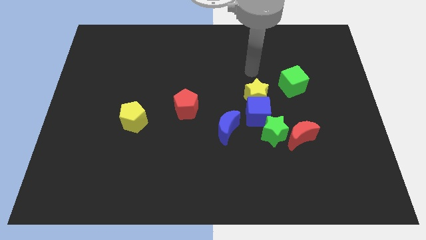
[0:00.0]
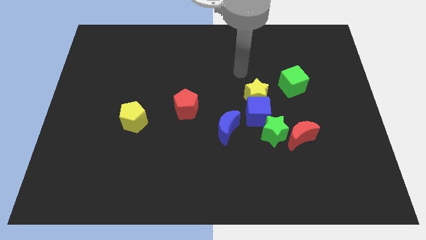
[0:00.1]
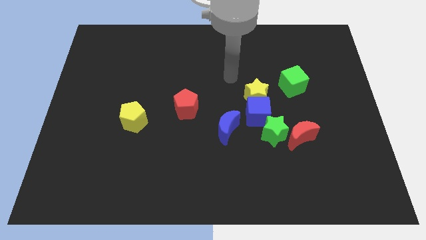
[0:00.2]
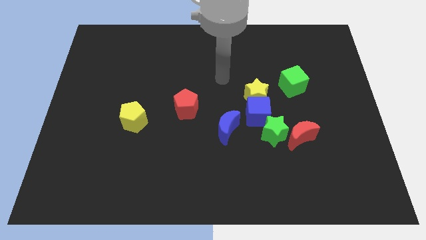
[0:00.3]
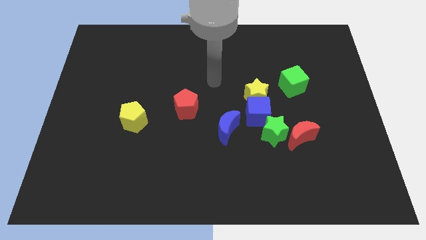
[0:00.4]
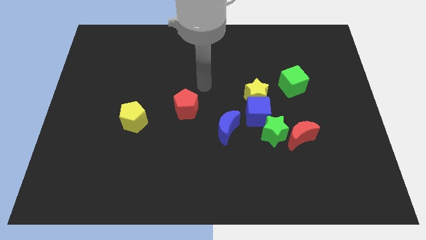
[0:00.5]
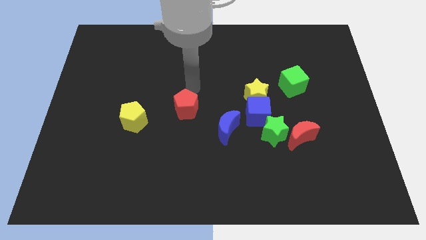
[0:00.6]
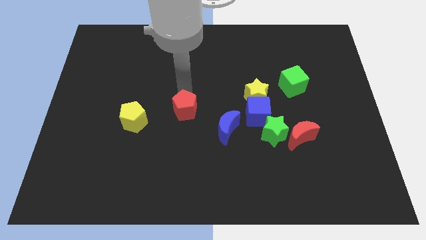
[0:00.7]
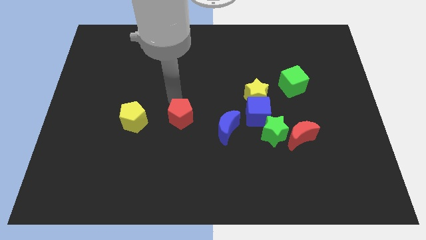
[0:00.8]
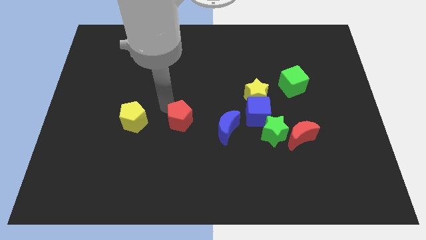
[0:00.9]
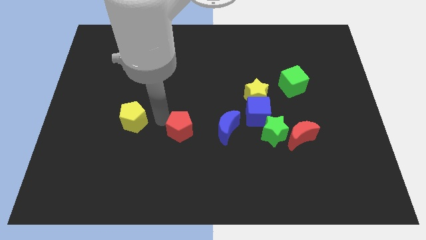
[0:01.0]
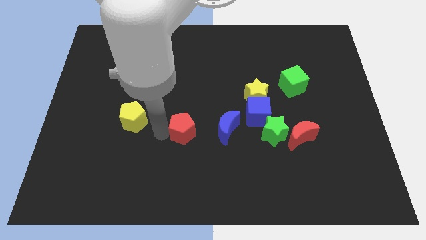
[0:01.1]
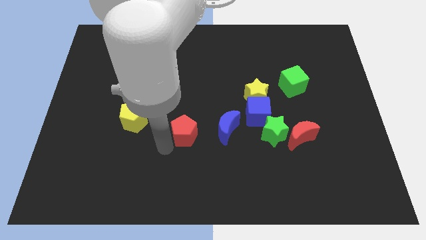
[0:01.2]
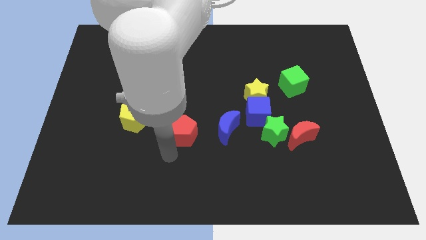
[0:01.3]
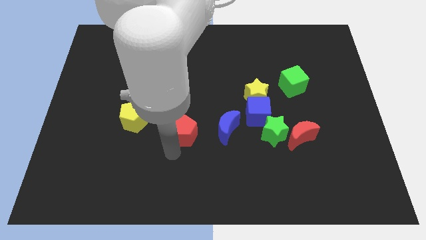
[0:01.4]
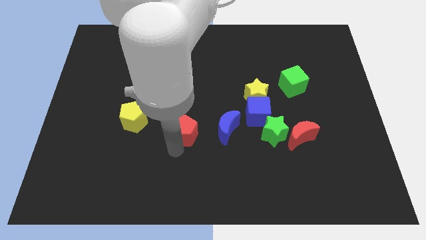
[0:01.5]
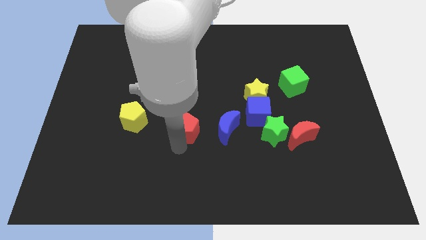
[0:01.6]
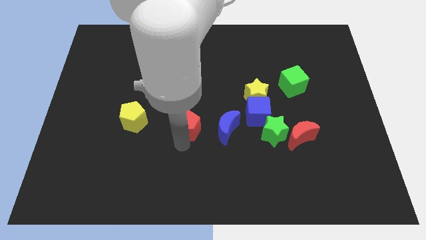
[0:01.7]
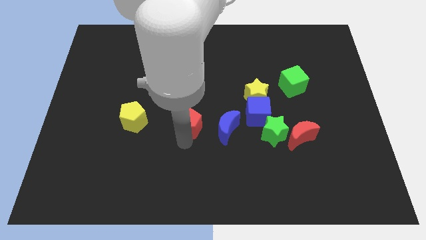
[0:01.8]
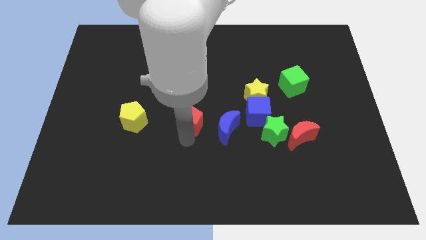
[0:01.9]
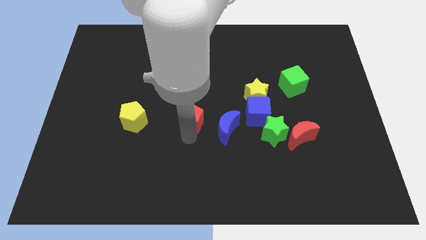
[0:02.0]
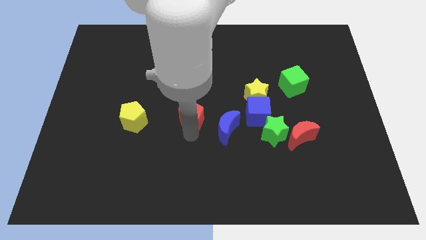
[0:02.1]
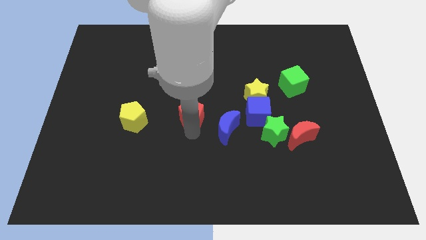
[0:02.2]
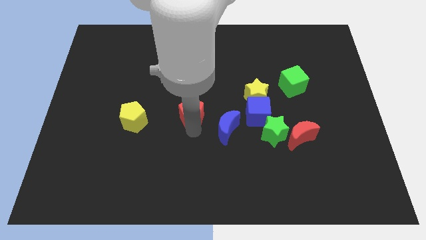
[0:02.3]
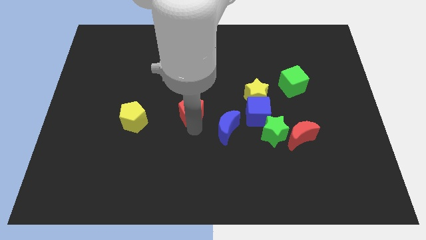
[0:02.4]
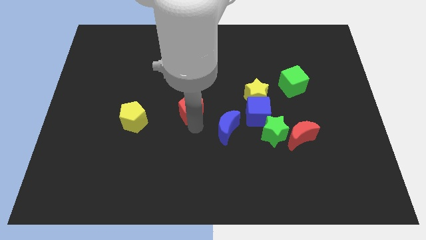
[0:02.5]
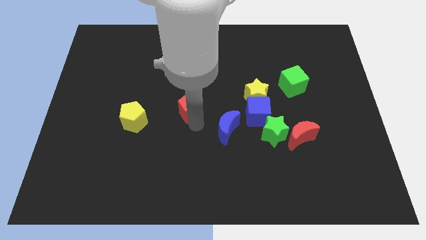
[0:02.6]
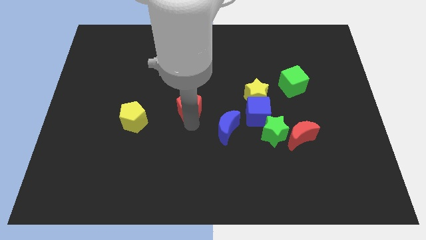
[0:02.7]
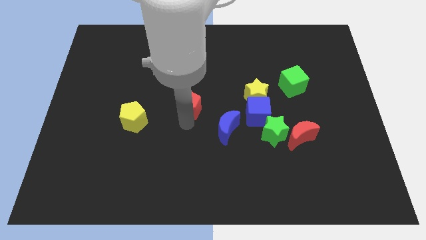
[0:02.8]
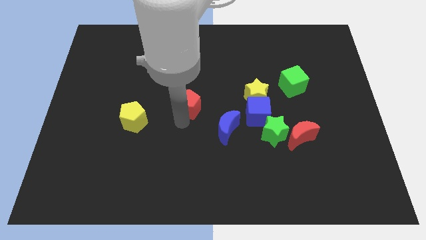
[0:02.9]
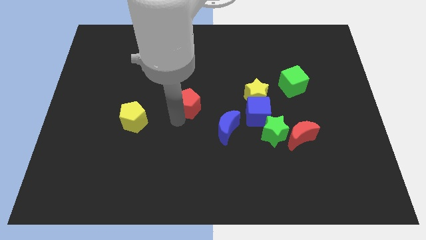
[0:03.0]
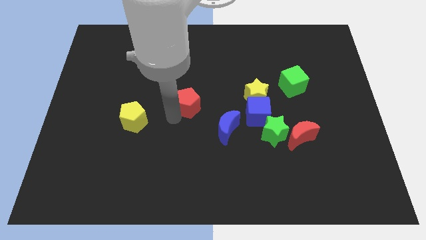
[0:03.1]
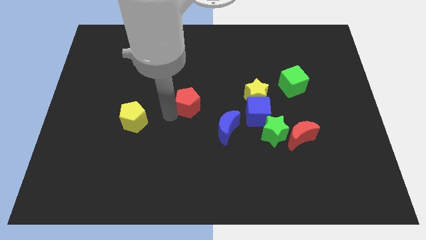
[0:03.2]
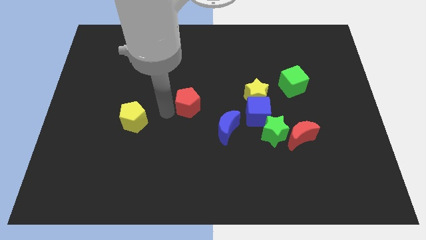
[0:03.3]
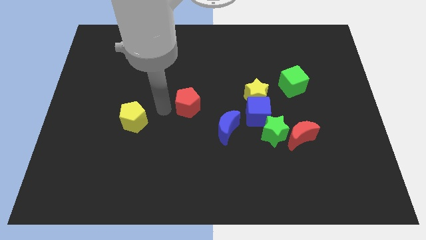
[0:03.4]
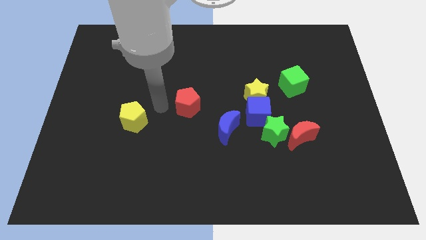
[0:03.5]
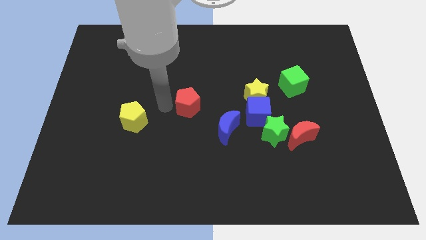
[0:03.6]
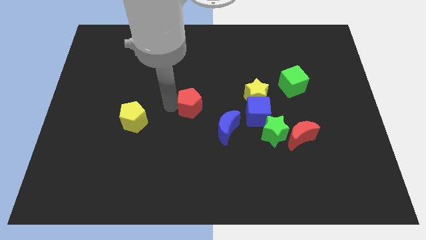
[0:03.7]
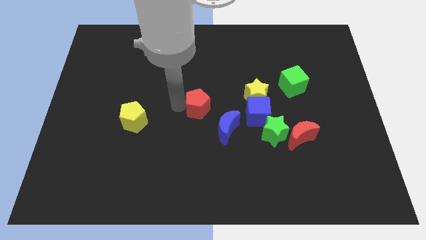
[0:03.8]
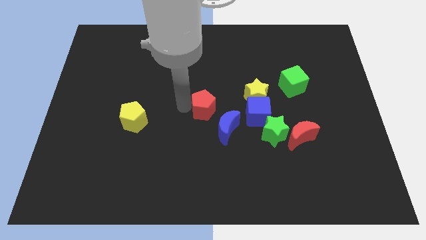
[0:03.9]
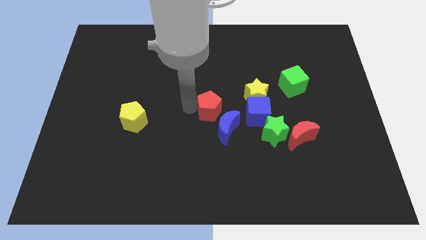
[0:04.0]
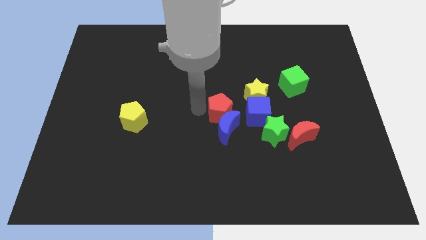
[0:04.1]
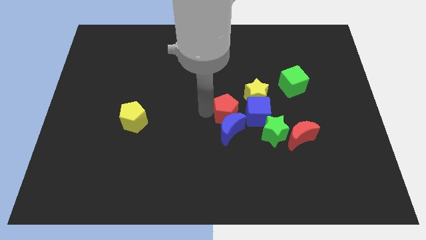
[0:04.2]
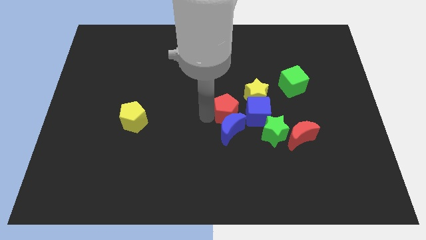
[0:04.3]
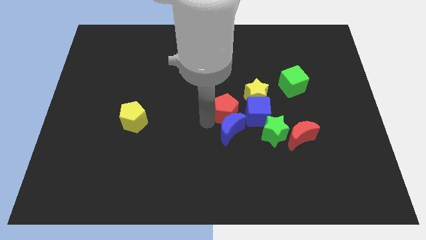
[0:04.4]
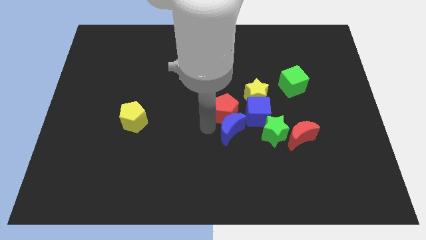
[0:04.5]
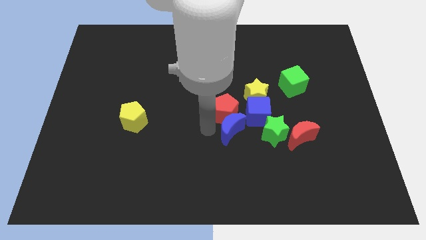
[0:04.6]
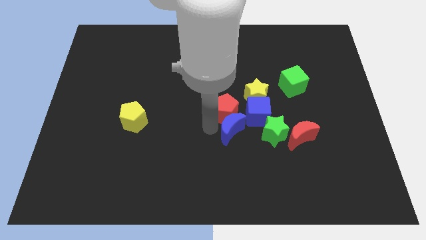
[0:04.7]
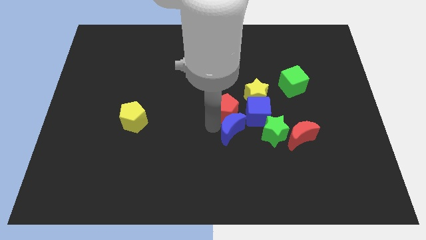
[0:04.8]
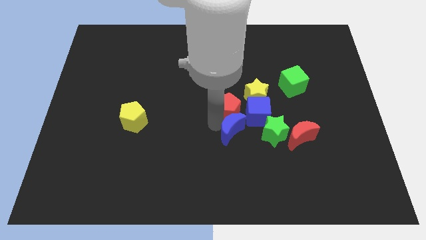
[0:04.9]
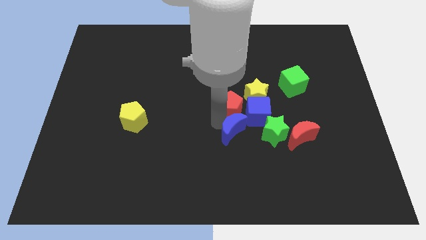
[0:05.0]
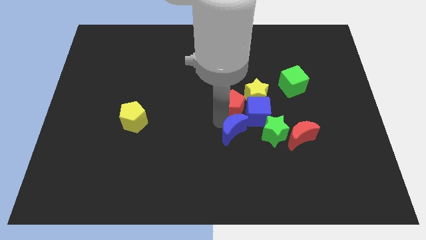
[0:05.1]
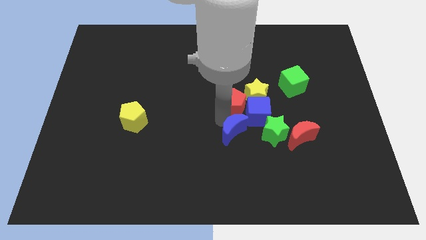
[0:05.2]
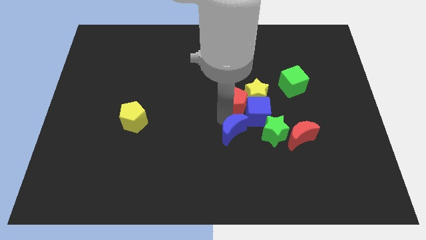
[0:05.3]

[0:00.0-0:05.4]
push the red pentagon to the yellow star

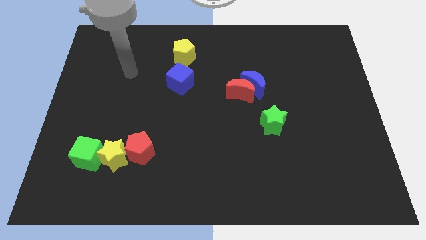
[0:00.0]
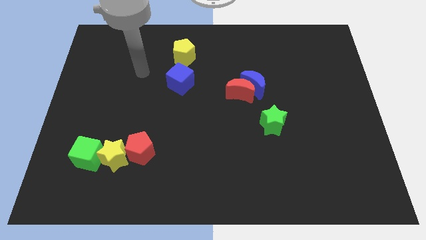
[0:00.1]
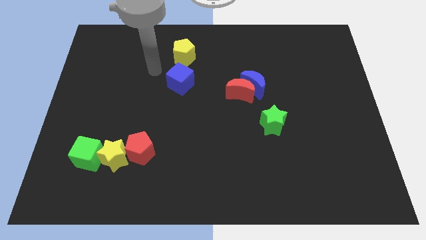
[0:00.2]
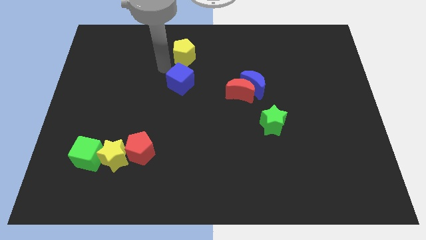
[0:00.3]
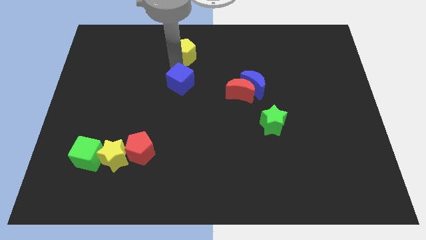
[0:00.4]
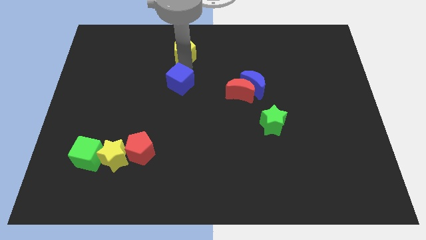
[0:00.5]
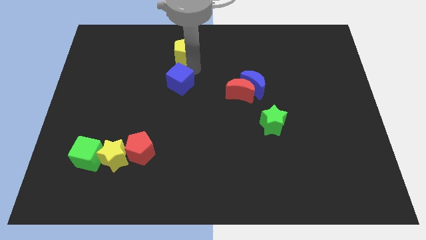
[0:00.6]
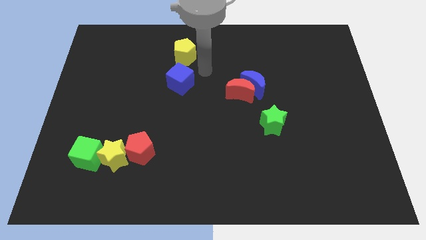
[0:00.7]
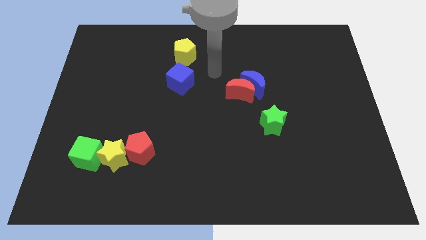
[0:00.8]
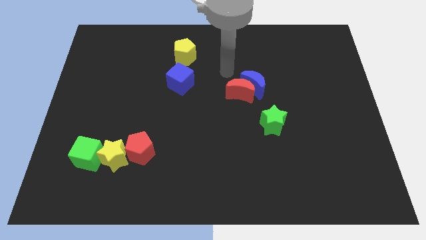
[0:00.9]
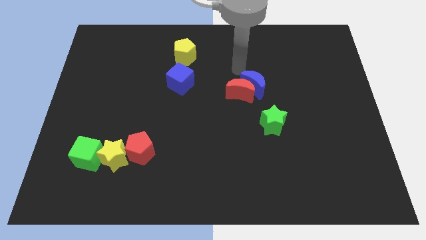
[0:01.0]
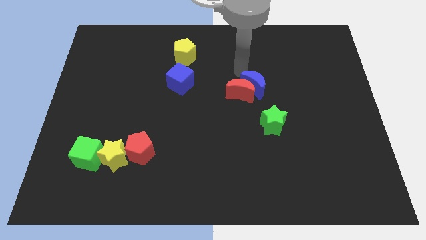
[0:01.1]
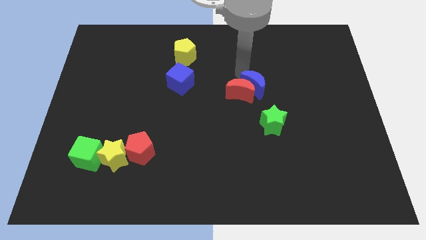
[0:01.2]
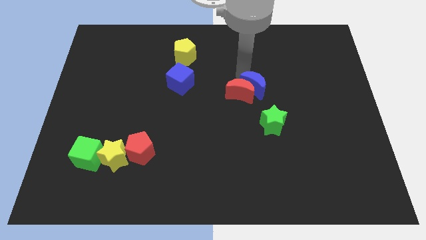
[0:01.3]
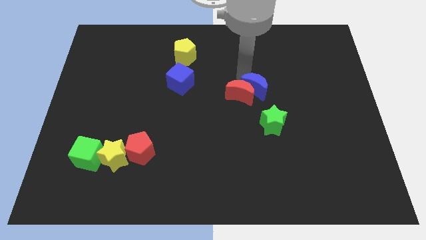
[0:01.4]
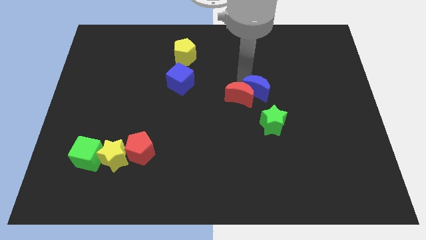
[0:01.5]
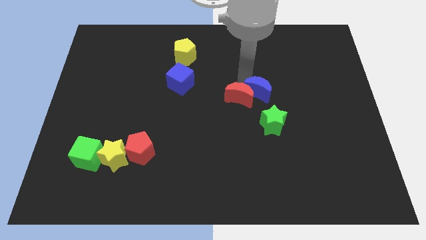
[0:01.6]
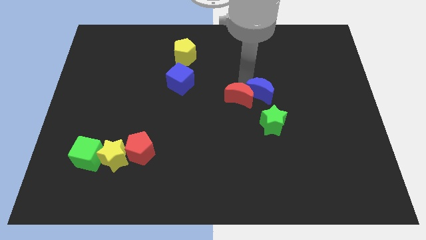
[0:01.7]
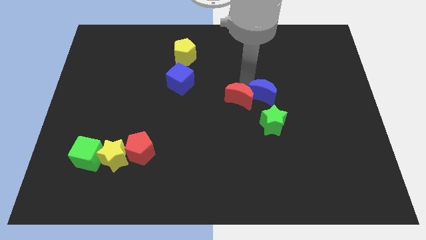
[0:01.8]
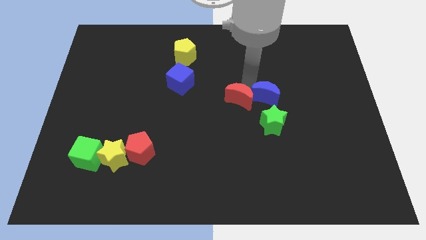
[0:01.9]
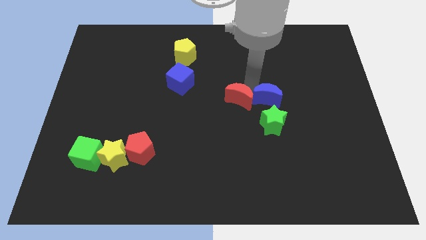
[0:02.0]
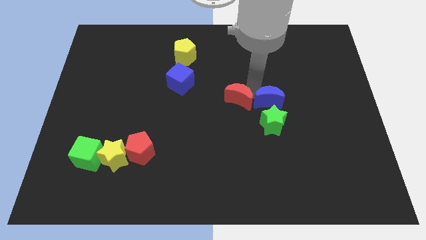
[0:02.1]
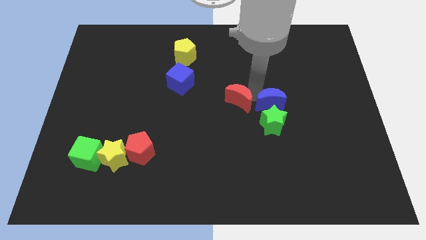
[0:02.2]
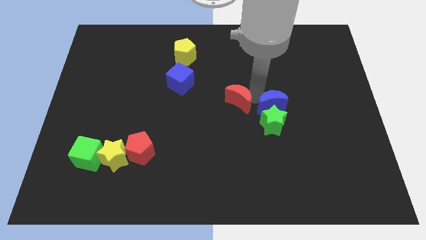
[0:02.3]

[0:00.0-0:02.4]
slide the blue moon close to the green star
